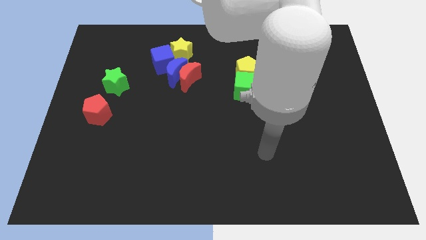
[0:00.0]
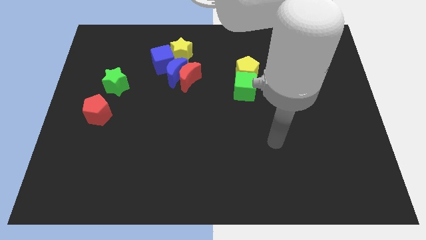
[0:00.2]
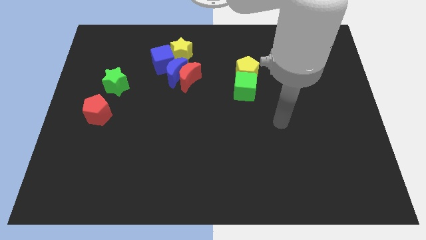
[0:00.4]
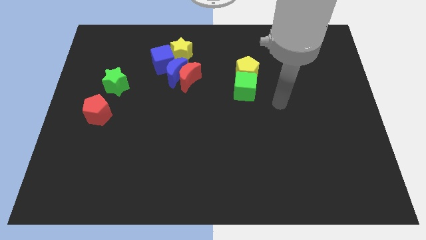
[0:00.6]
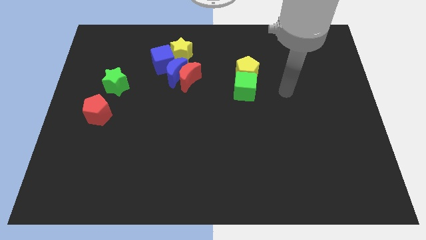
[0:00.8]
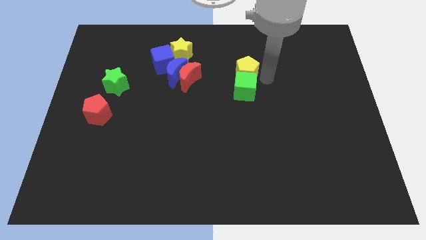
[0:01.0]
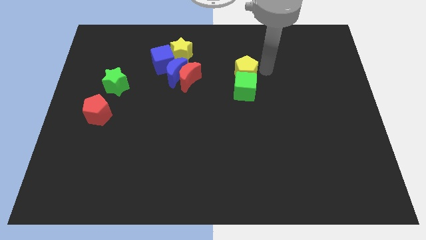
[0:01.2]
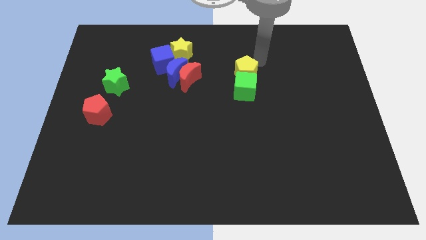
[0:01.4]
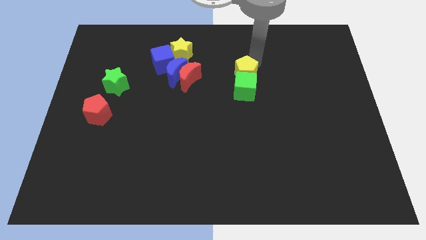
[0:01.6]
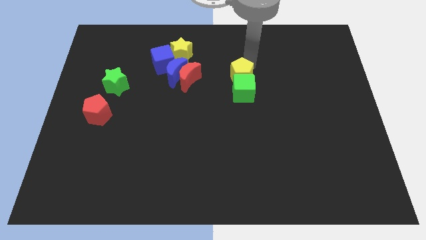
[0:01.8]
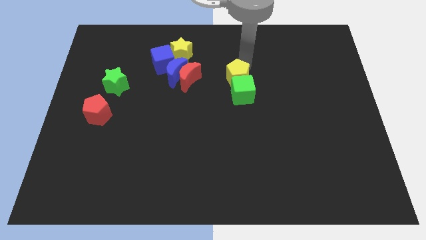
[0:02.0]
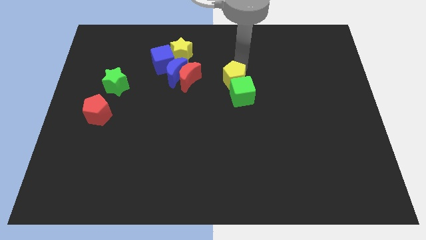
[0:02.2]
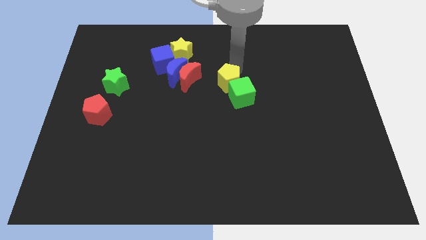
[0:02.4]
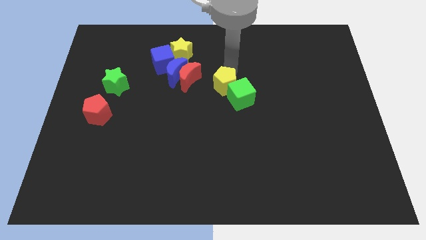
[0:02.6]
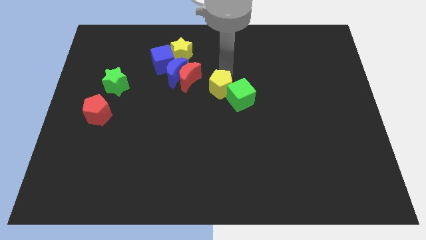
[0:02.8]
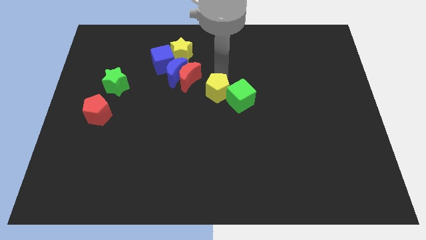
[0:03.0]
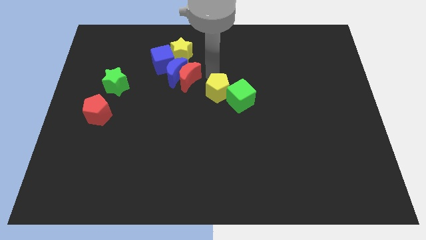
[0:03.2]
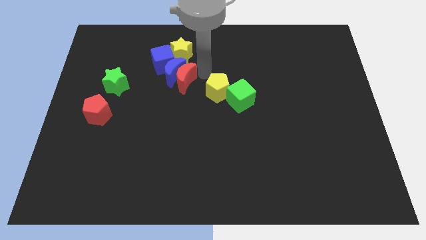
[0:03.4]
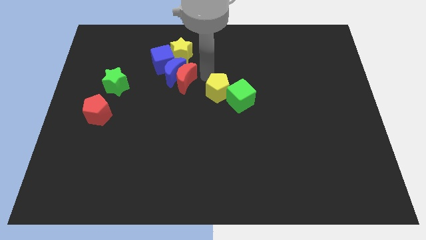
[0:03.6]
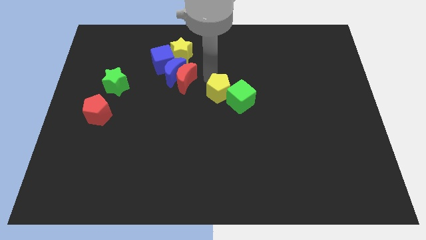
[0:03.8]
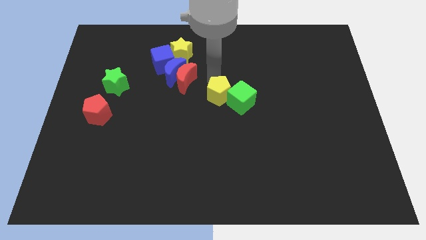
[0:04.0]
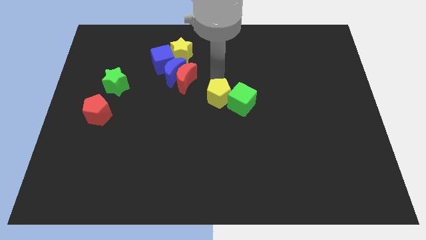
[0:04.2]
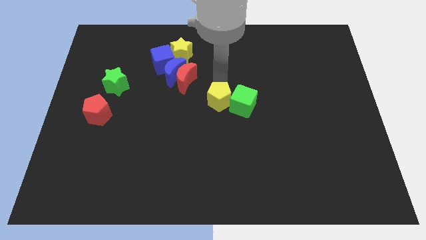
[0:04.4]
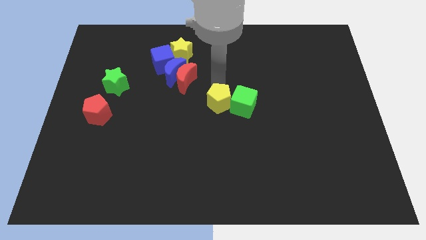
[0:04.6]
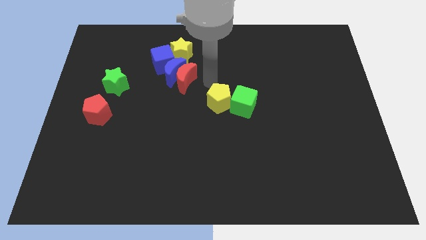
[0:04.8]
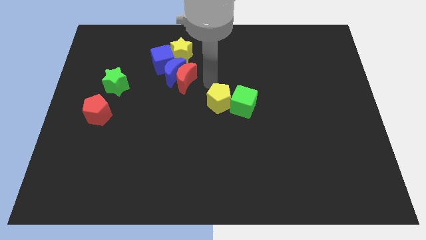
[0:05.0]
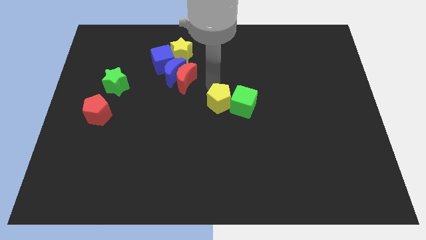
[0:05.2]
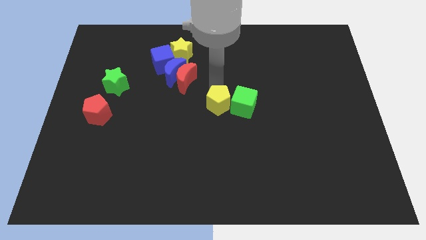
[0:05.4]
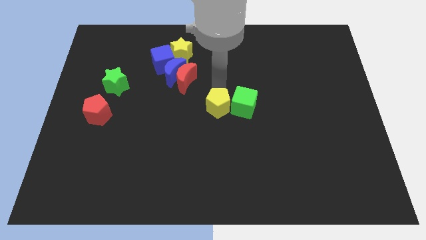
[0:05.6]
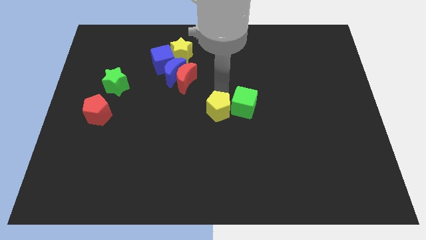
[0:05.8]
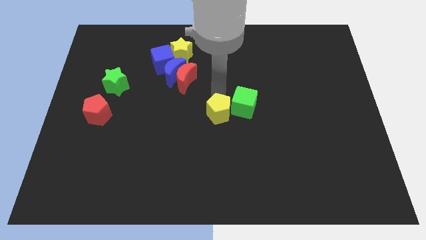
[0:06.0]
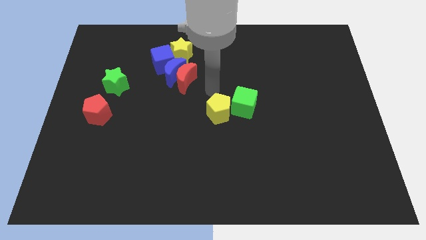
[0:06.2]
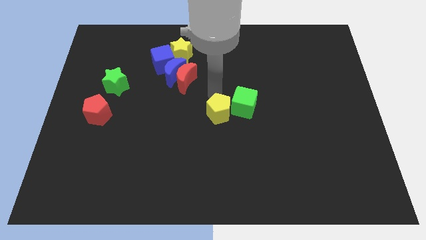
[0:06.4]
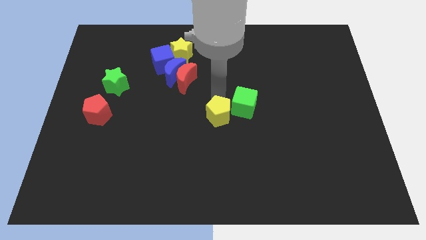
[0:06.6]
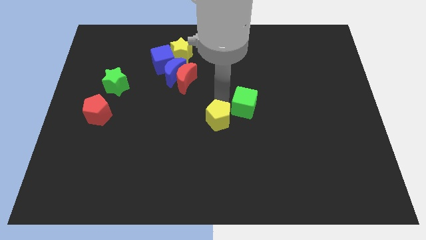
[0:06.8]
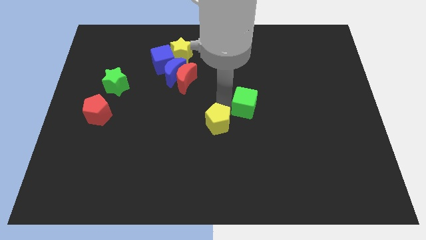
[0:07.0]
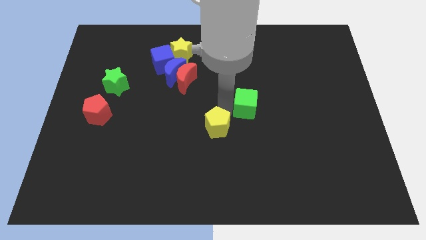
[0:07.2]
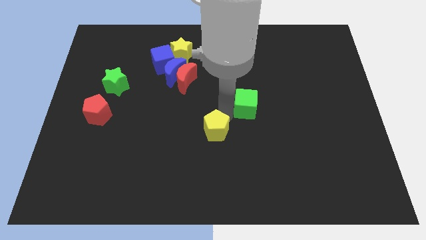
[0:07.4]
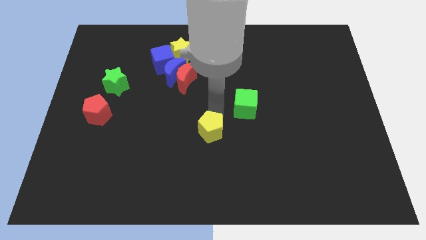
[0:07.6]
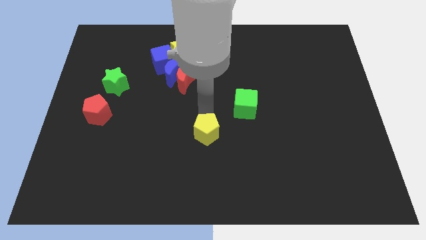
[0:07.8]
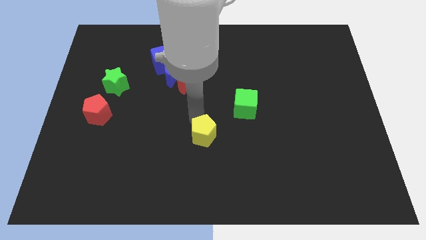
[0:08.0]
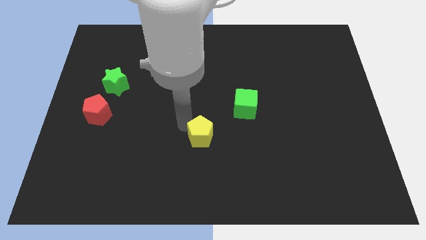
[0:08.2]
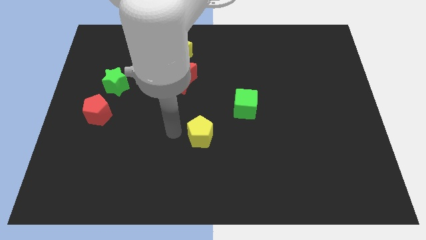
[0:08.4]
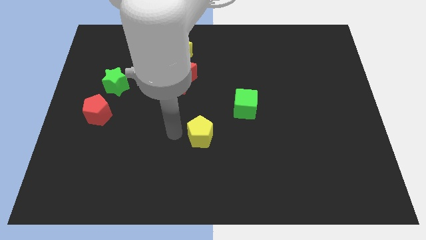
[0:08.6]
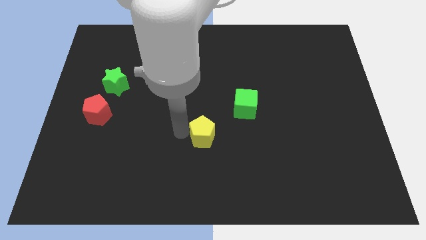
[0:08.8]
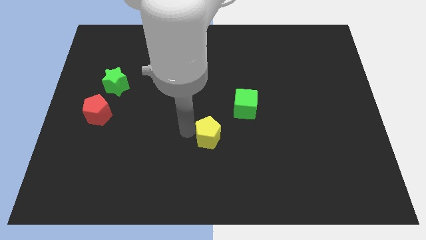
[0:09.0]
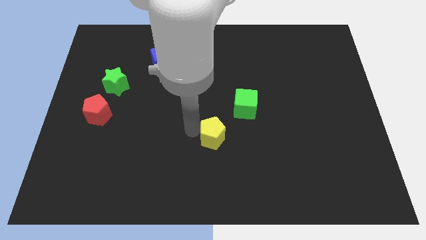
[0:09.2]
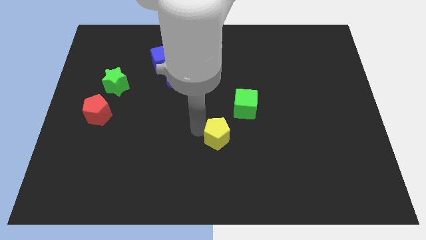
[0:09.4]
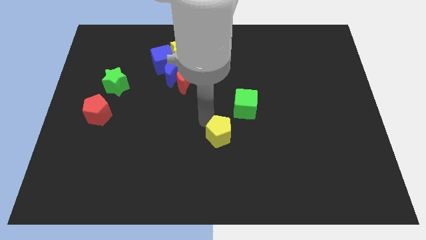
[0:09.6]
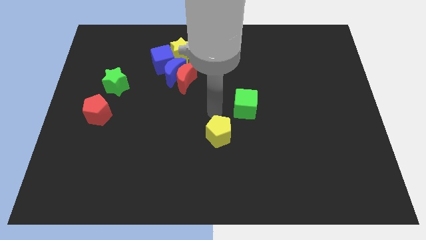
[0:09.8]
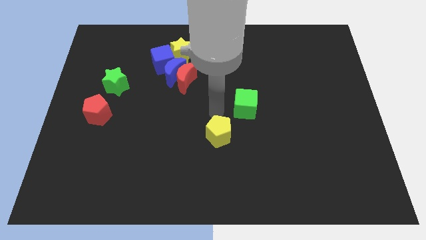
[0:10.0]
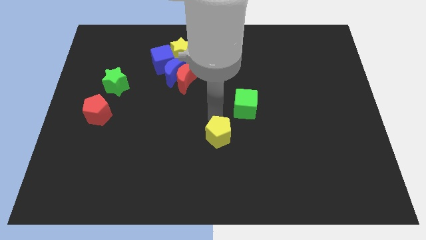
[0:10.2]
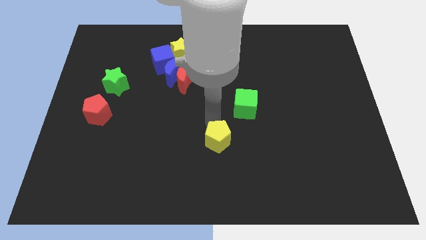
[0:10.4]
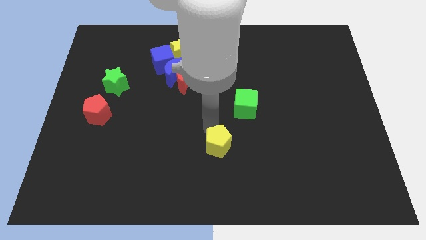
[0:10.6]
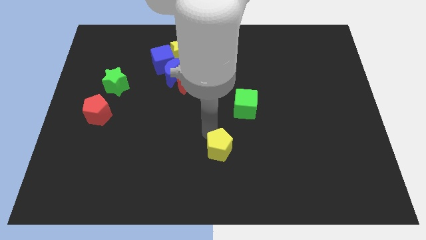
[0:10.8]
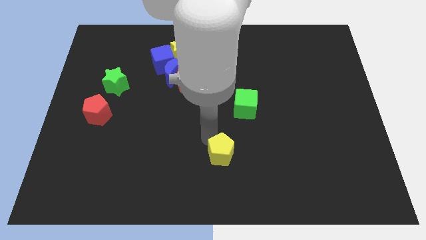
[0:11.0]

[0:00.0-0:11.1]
slide the yellow pentagon to the bottom side
